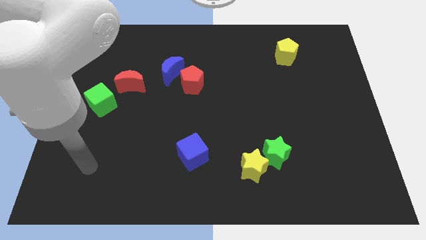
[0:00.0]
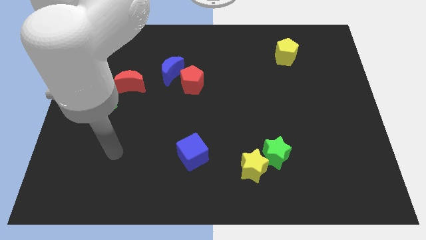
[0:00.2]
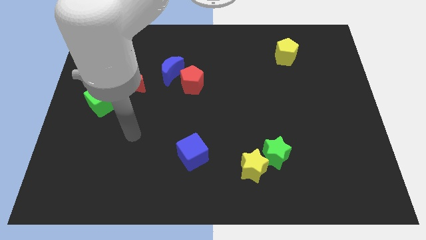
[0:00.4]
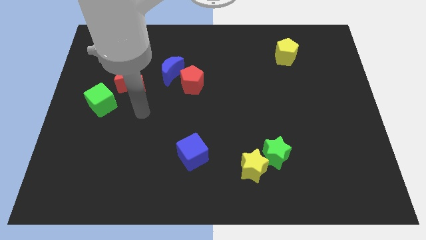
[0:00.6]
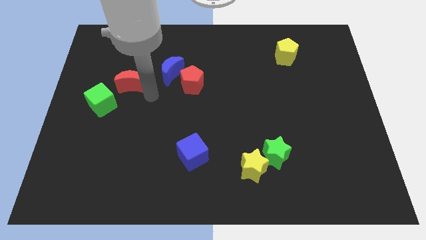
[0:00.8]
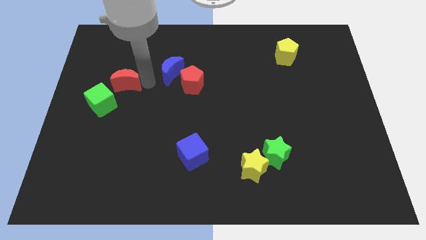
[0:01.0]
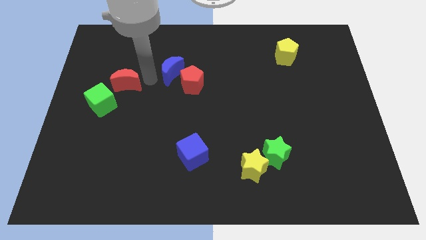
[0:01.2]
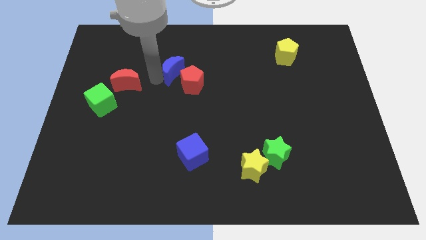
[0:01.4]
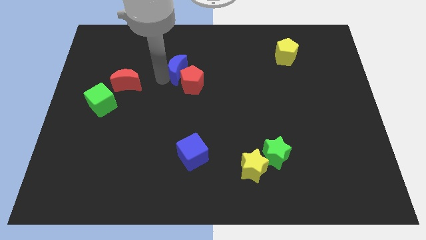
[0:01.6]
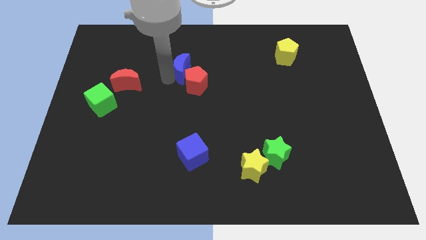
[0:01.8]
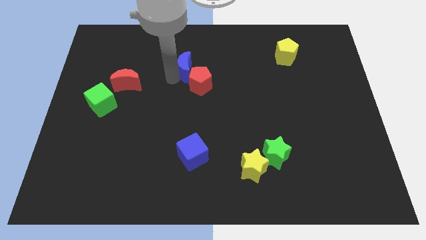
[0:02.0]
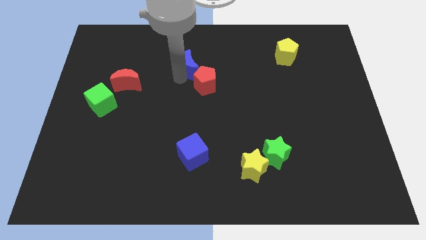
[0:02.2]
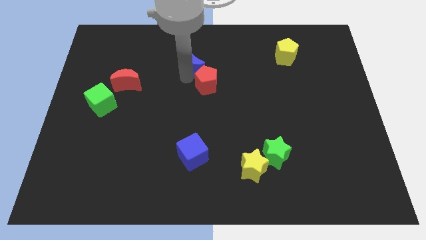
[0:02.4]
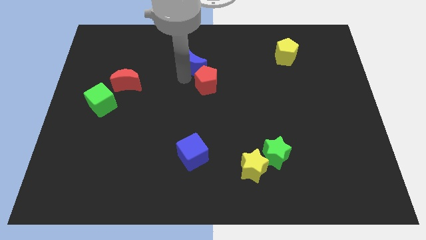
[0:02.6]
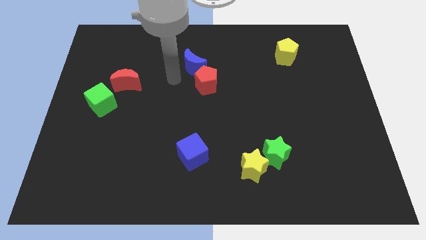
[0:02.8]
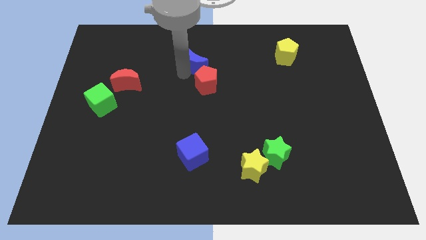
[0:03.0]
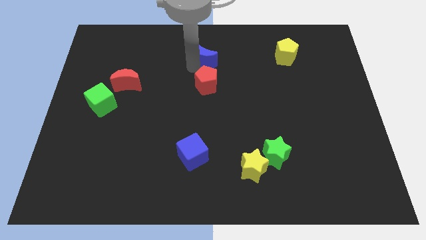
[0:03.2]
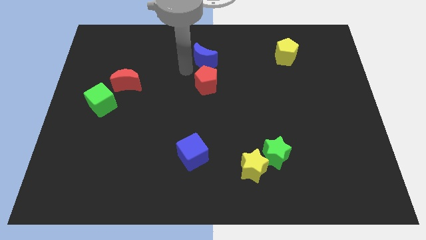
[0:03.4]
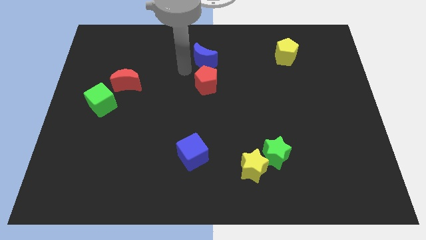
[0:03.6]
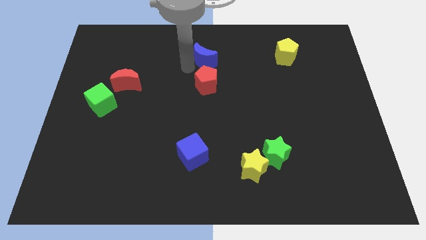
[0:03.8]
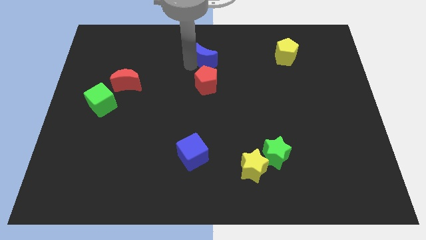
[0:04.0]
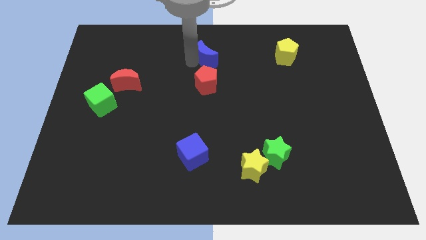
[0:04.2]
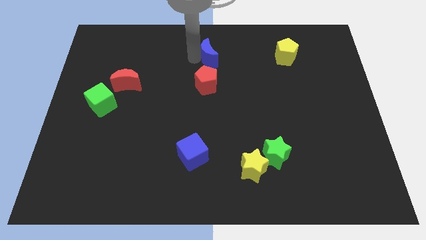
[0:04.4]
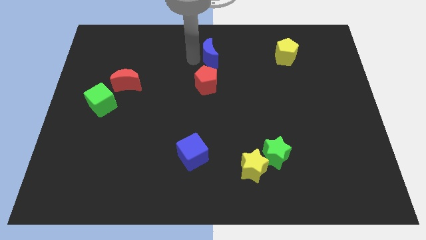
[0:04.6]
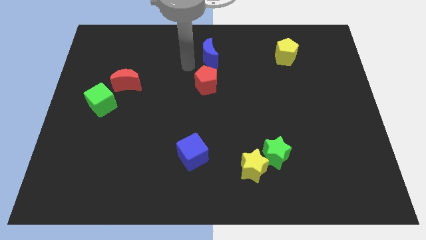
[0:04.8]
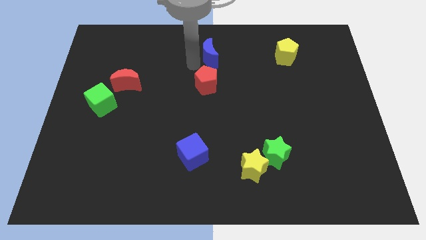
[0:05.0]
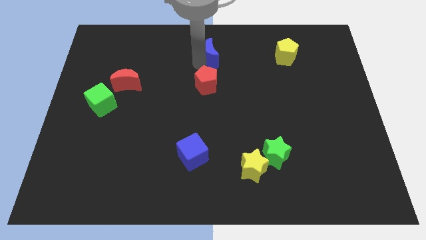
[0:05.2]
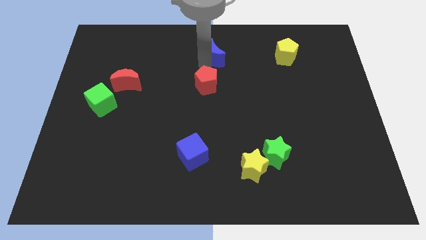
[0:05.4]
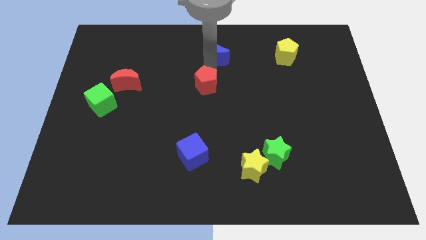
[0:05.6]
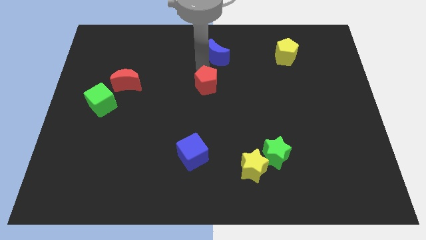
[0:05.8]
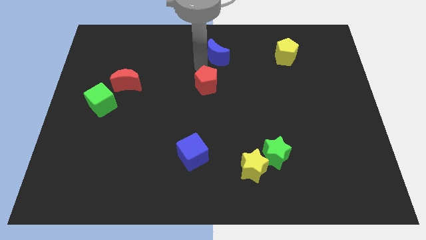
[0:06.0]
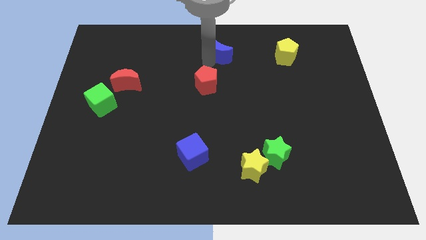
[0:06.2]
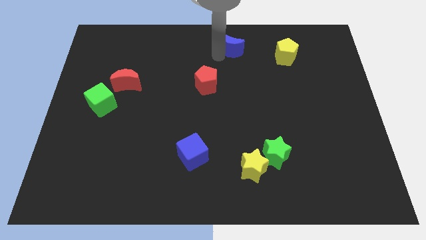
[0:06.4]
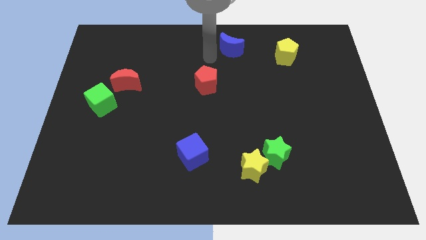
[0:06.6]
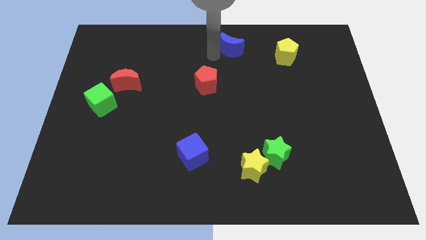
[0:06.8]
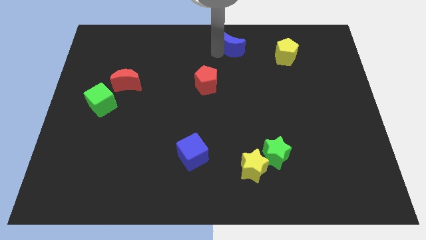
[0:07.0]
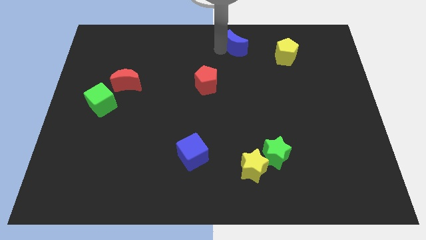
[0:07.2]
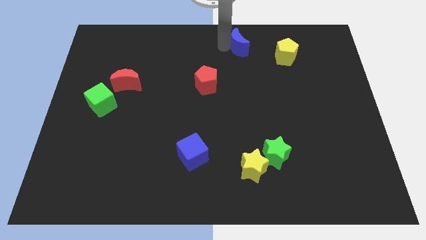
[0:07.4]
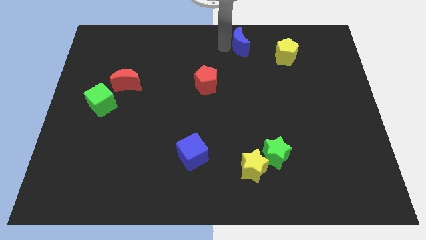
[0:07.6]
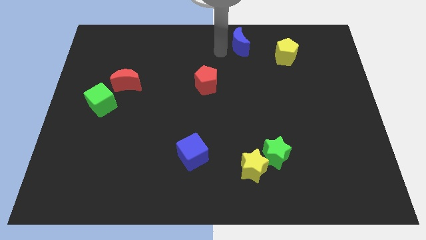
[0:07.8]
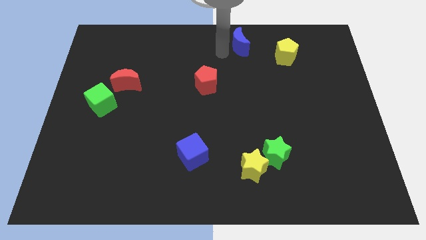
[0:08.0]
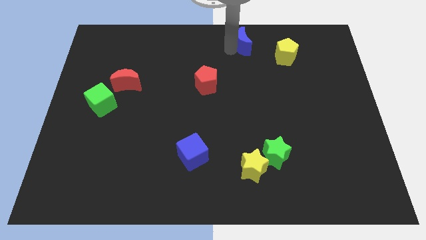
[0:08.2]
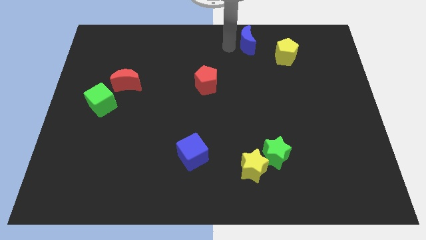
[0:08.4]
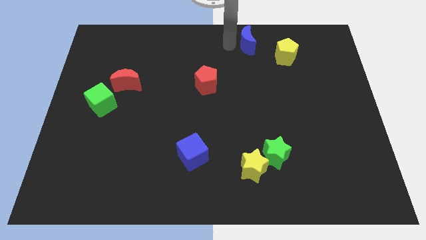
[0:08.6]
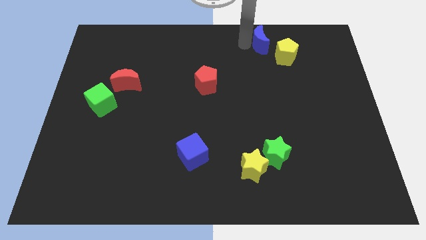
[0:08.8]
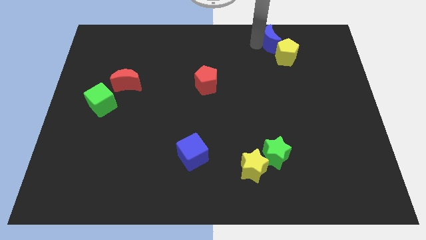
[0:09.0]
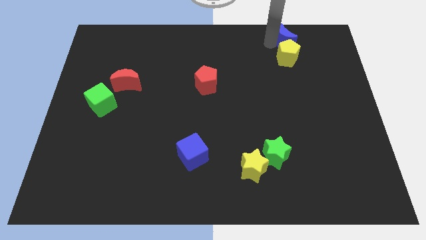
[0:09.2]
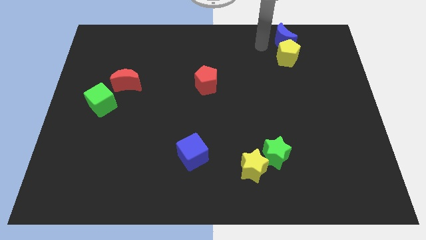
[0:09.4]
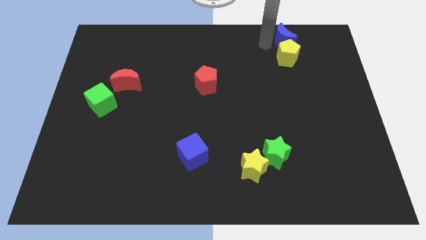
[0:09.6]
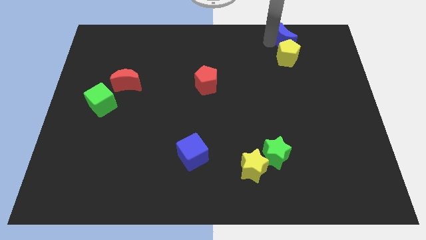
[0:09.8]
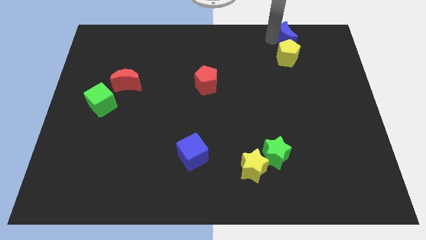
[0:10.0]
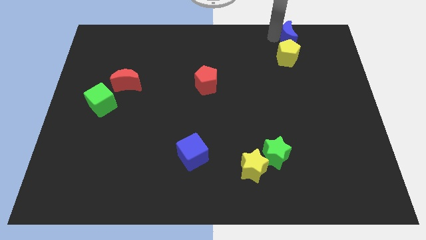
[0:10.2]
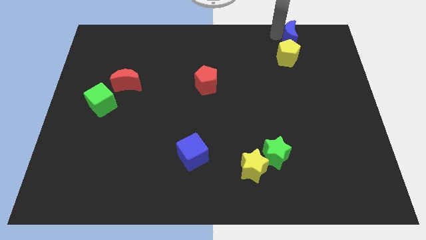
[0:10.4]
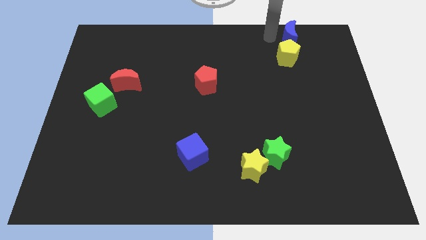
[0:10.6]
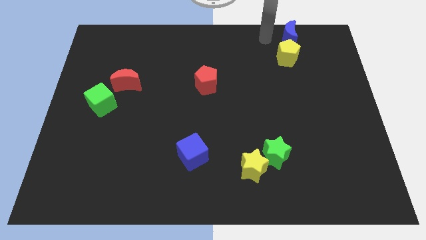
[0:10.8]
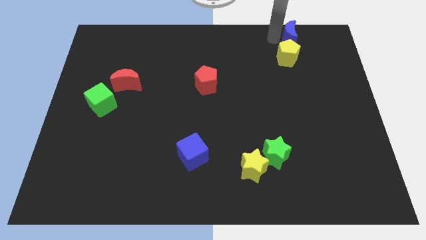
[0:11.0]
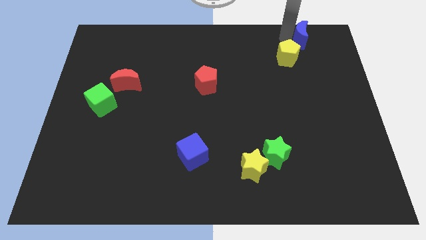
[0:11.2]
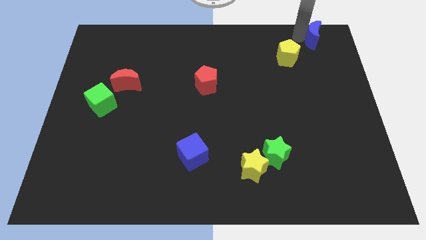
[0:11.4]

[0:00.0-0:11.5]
move the blue moon to the top right of the board
